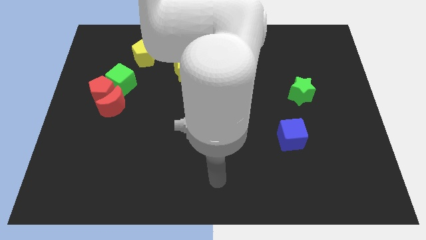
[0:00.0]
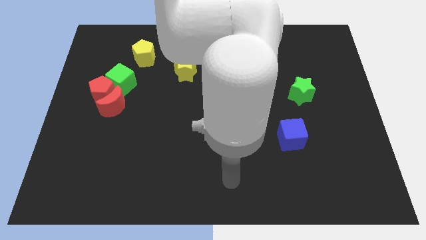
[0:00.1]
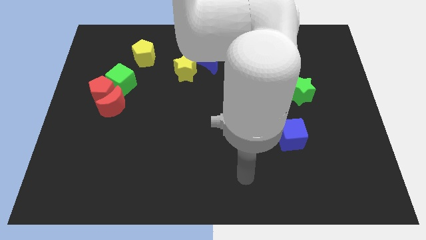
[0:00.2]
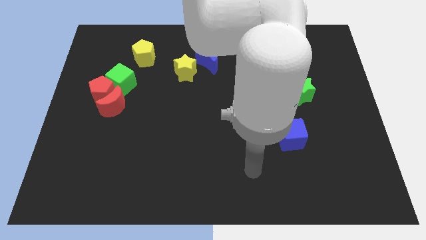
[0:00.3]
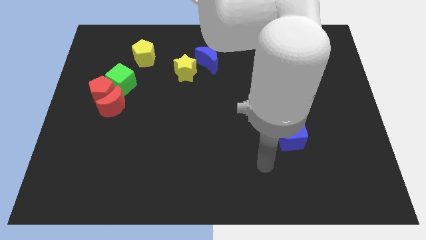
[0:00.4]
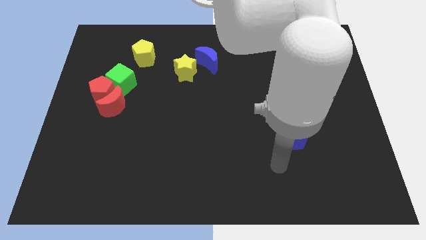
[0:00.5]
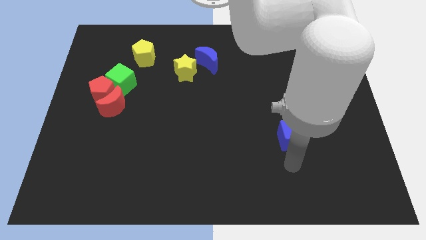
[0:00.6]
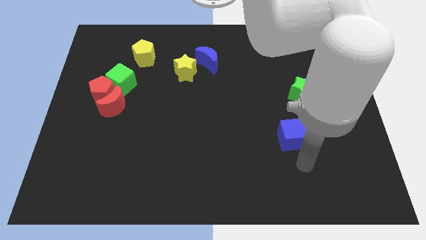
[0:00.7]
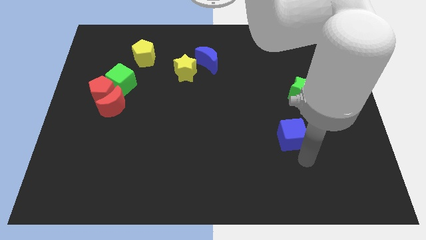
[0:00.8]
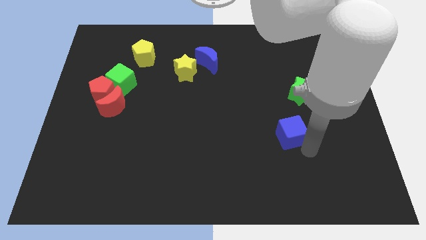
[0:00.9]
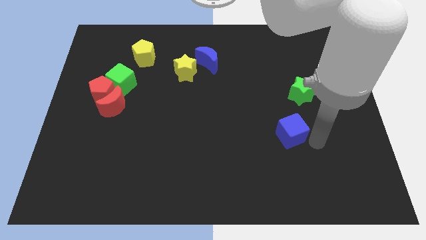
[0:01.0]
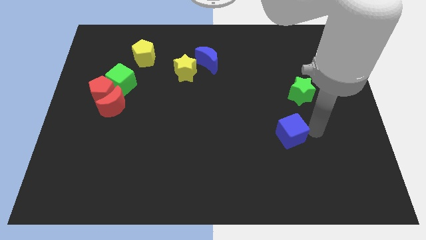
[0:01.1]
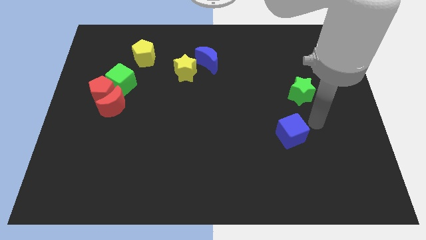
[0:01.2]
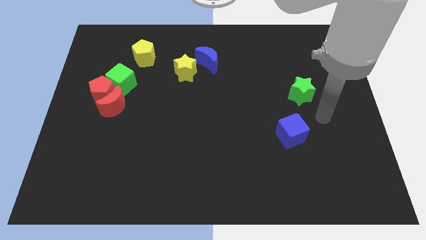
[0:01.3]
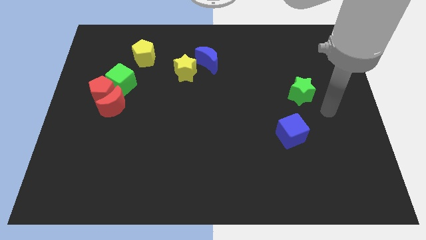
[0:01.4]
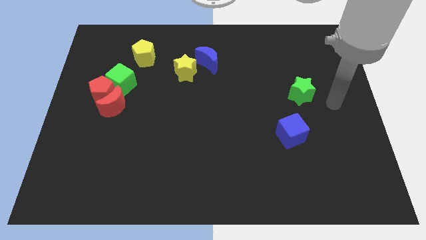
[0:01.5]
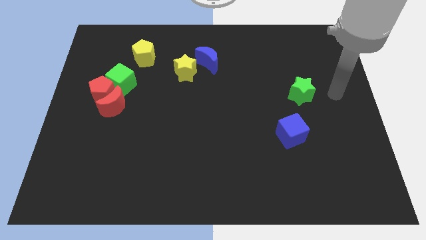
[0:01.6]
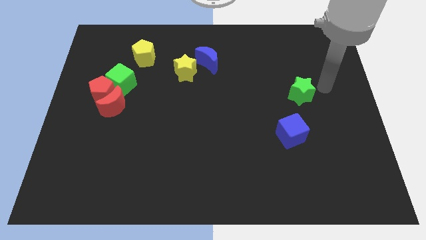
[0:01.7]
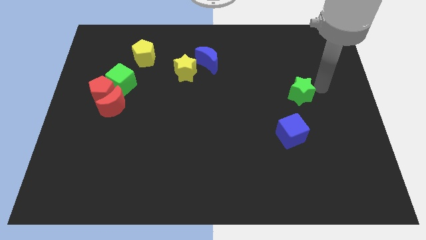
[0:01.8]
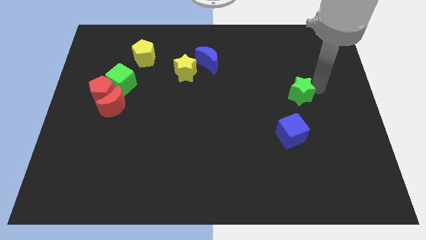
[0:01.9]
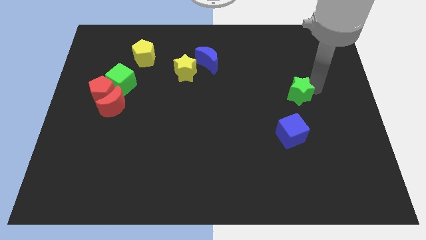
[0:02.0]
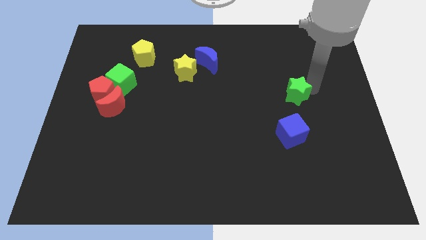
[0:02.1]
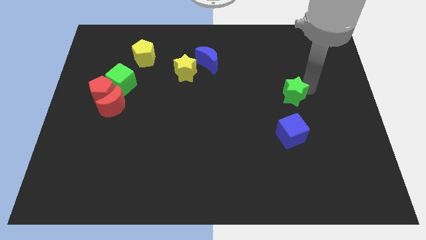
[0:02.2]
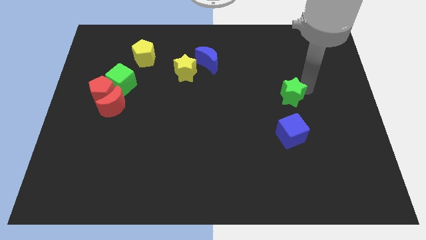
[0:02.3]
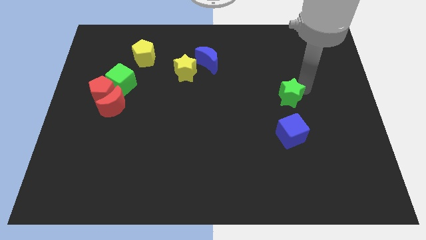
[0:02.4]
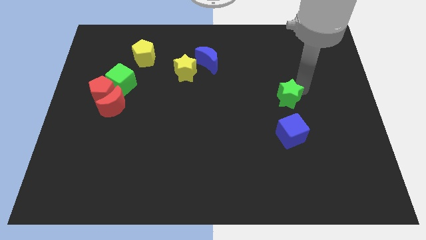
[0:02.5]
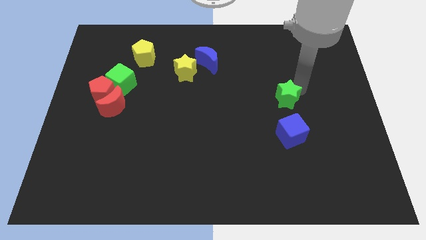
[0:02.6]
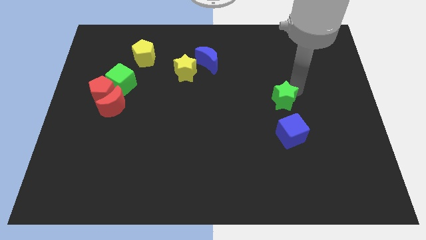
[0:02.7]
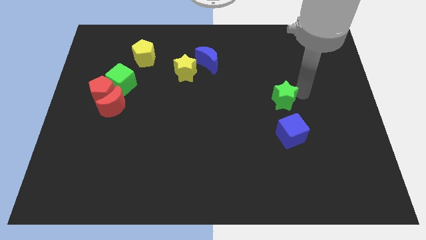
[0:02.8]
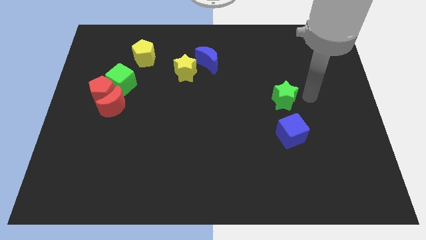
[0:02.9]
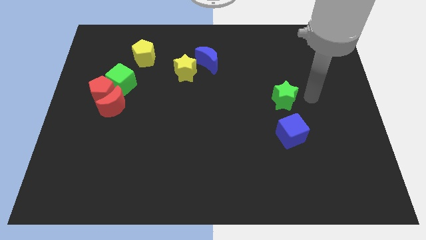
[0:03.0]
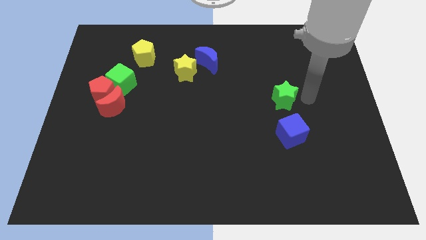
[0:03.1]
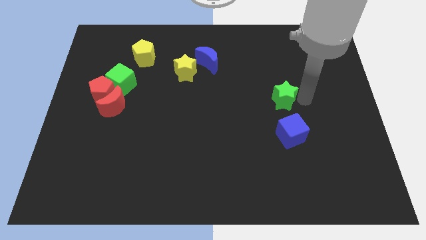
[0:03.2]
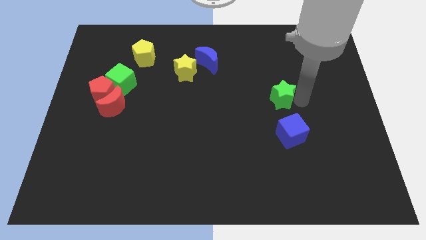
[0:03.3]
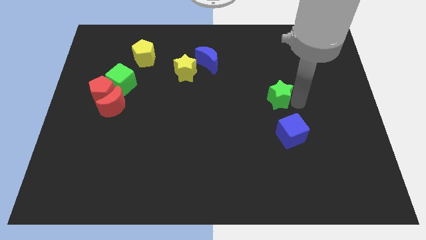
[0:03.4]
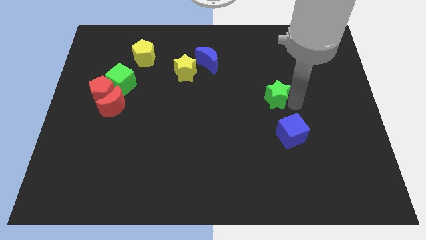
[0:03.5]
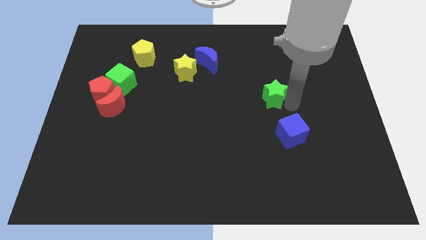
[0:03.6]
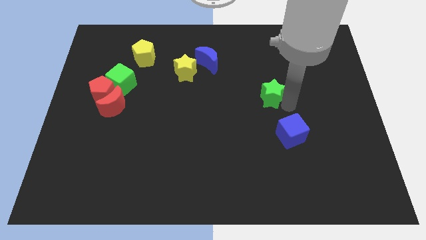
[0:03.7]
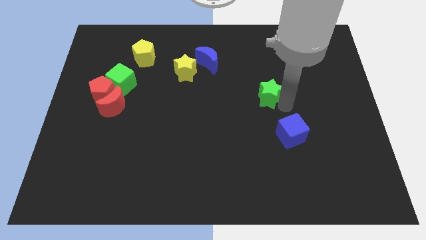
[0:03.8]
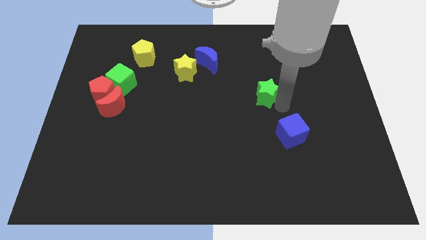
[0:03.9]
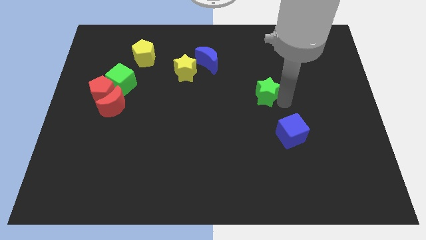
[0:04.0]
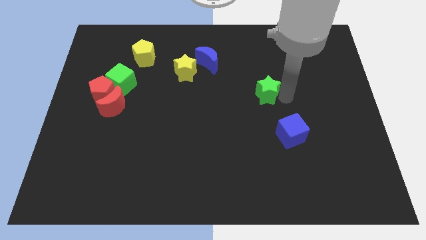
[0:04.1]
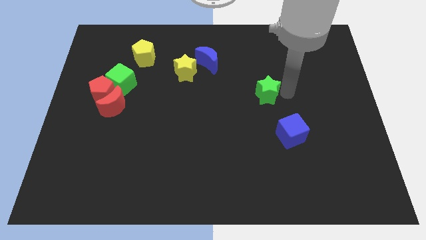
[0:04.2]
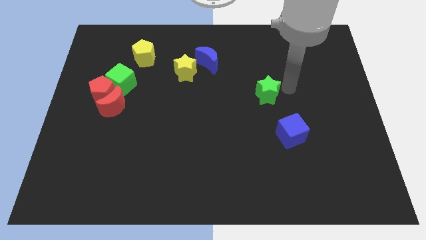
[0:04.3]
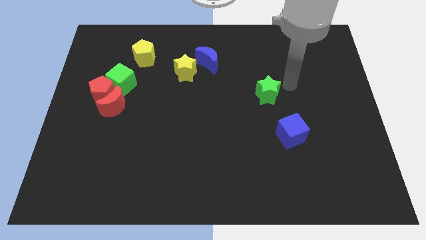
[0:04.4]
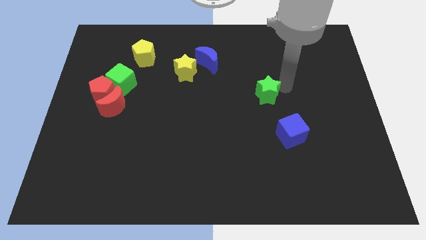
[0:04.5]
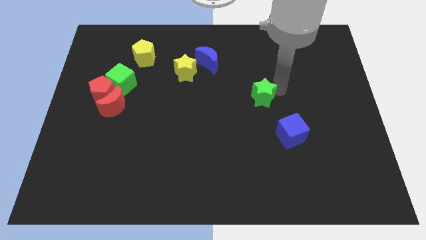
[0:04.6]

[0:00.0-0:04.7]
slide the green star to the middle

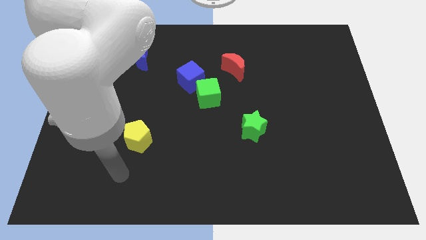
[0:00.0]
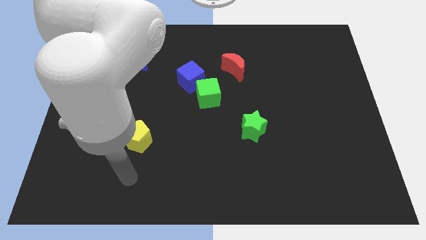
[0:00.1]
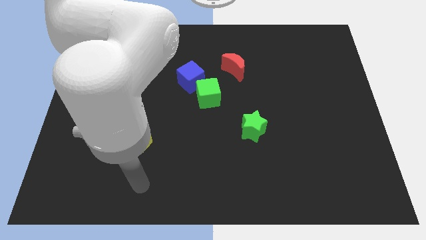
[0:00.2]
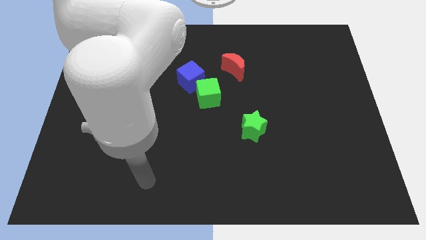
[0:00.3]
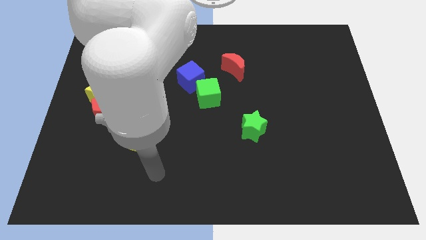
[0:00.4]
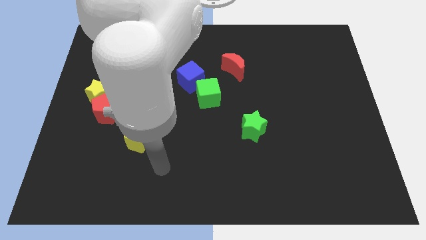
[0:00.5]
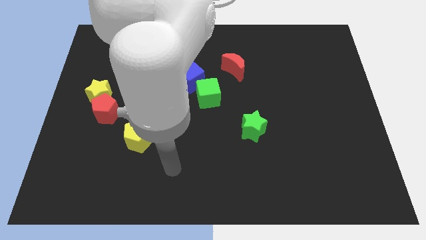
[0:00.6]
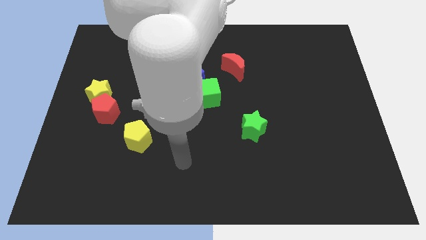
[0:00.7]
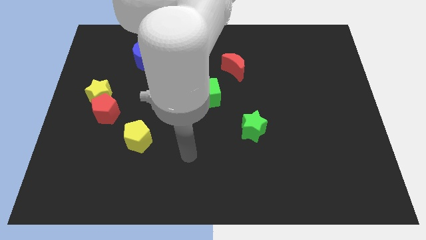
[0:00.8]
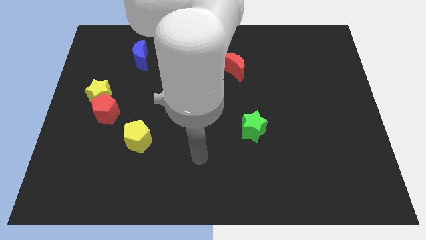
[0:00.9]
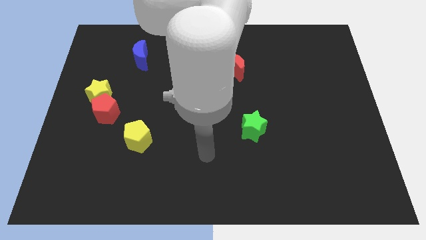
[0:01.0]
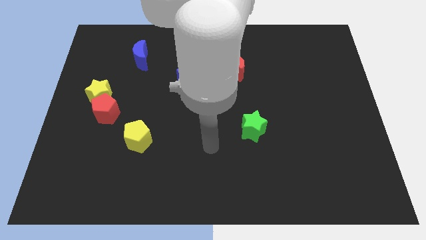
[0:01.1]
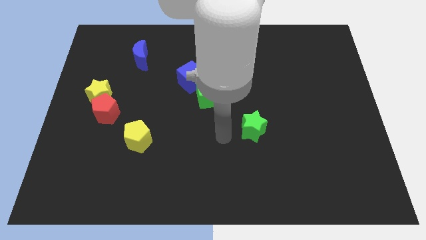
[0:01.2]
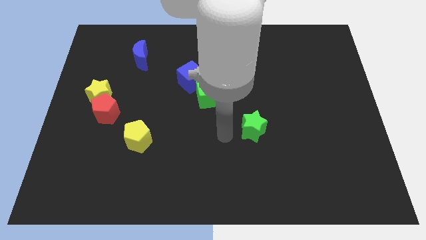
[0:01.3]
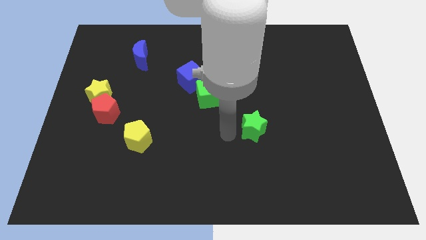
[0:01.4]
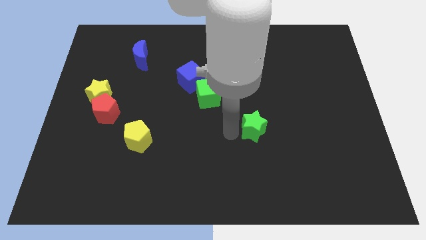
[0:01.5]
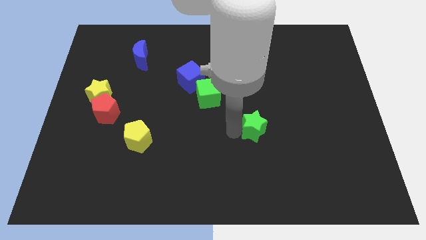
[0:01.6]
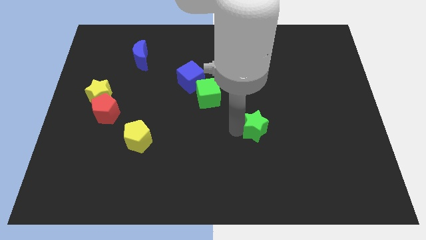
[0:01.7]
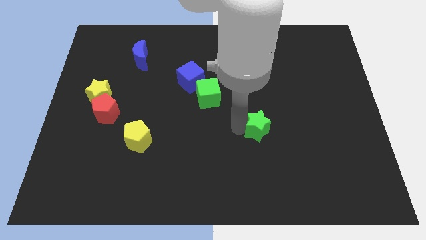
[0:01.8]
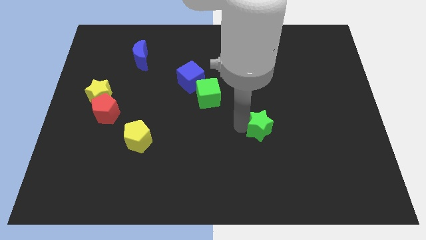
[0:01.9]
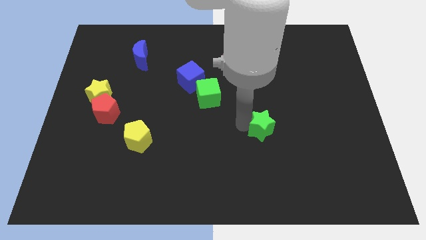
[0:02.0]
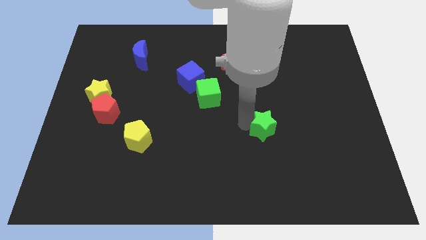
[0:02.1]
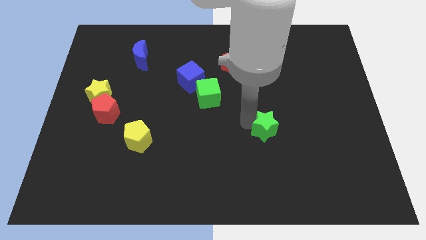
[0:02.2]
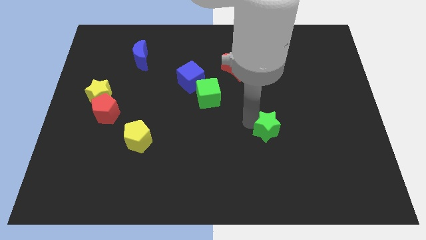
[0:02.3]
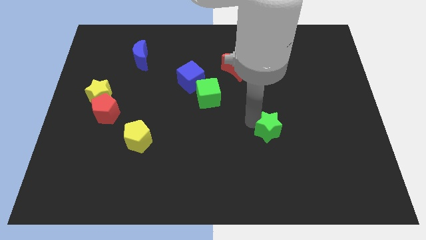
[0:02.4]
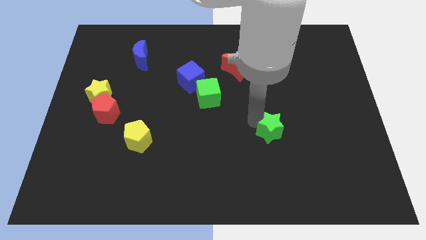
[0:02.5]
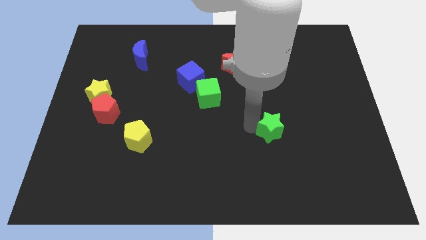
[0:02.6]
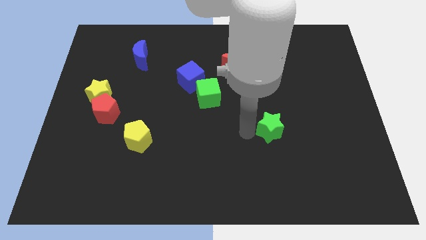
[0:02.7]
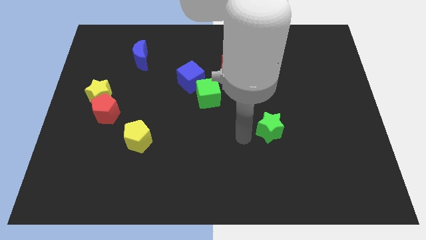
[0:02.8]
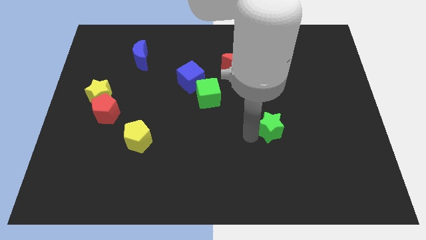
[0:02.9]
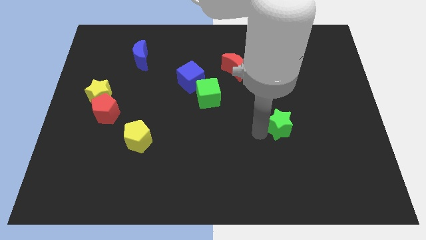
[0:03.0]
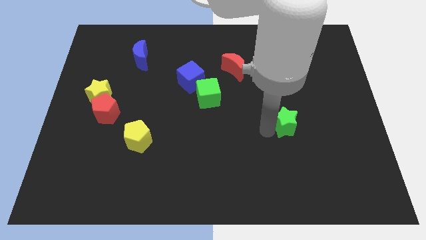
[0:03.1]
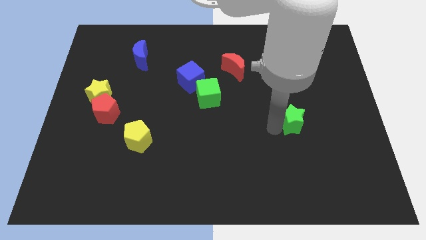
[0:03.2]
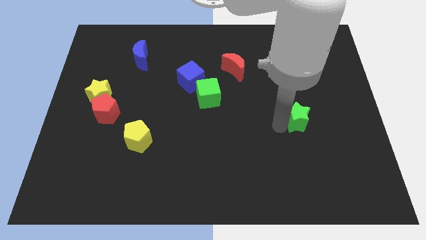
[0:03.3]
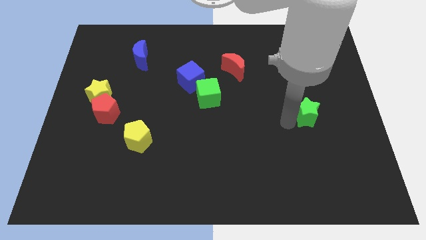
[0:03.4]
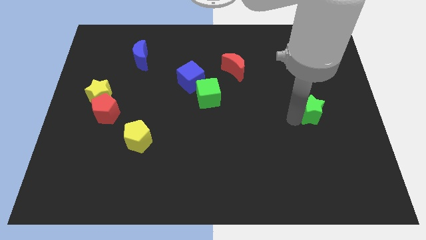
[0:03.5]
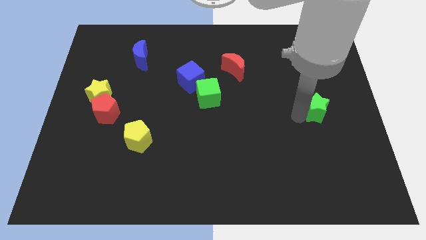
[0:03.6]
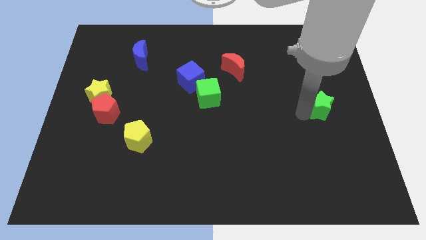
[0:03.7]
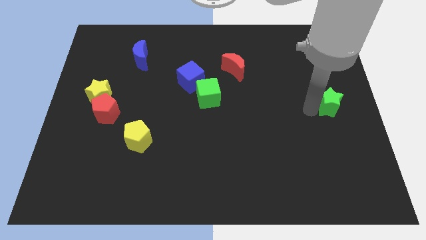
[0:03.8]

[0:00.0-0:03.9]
slide the green star to the right side
